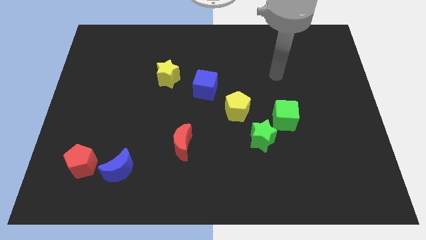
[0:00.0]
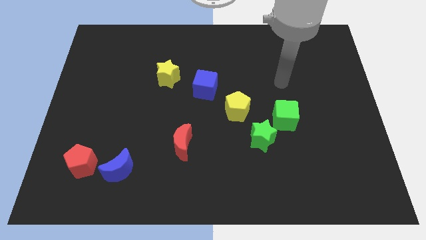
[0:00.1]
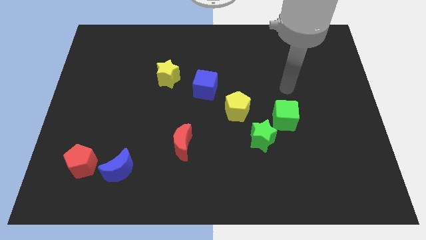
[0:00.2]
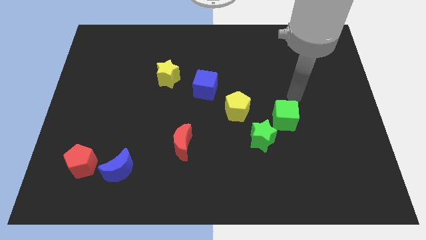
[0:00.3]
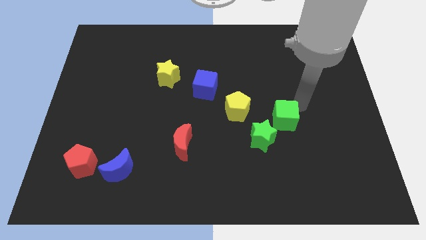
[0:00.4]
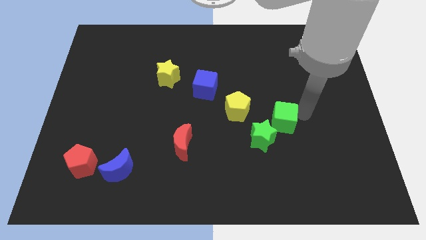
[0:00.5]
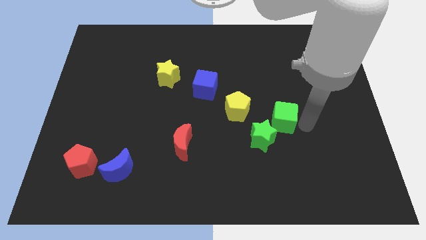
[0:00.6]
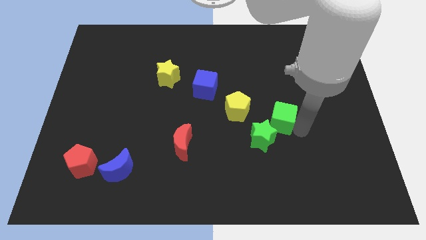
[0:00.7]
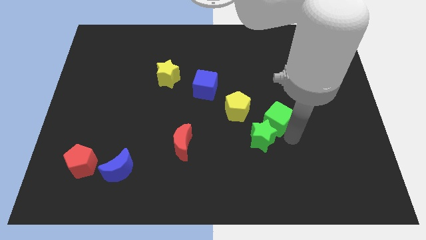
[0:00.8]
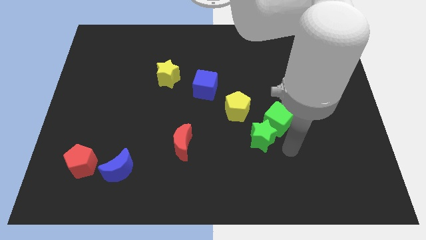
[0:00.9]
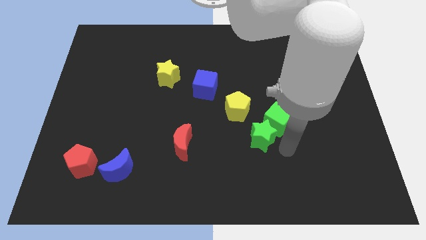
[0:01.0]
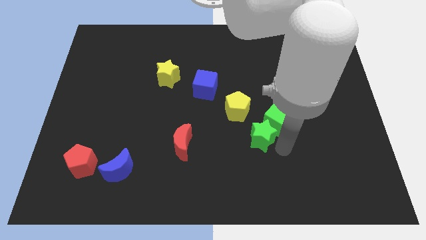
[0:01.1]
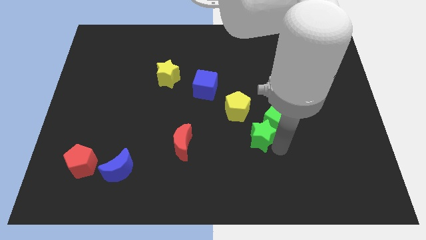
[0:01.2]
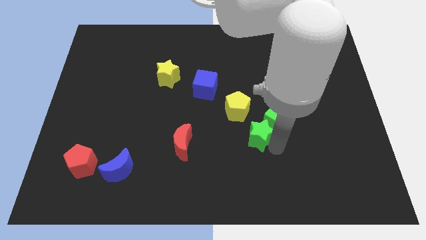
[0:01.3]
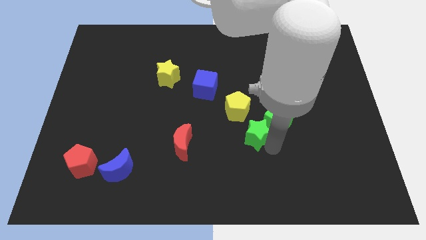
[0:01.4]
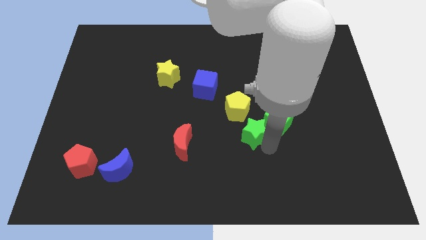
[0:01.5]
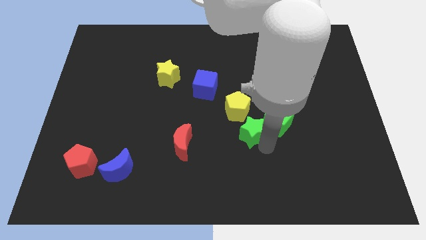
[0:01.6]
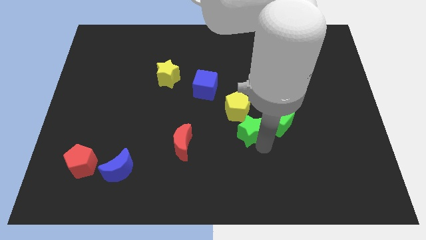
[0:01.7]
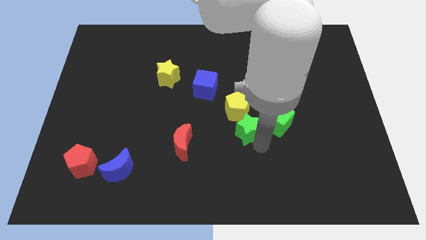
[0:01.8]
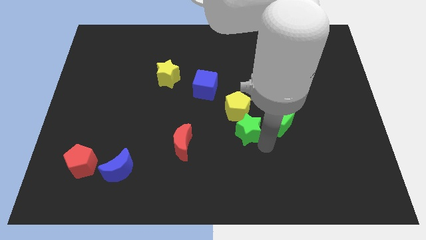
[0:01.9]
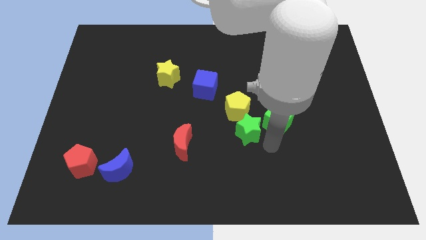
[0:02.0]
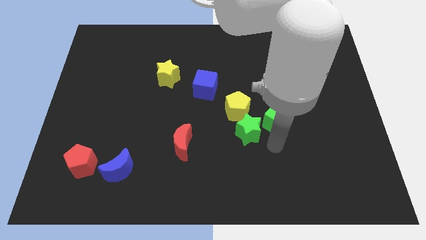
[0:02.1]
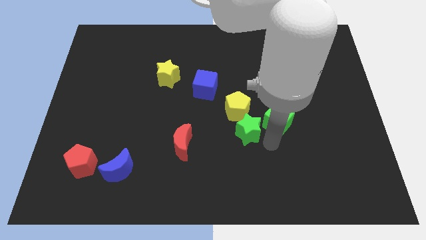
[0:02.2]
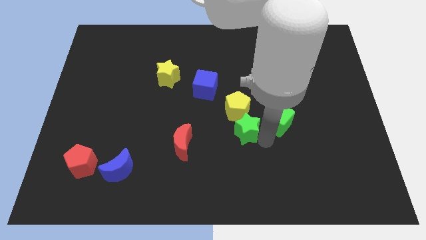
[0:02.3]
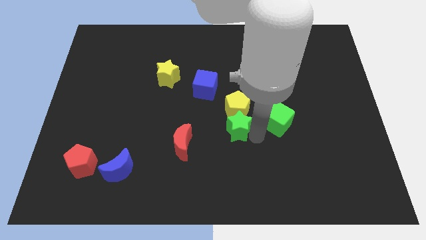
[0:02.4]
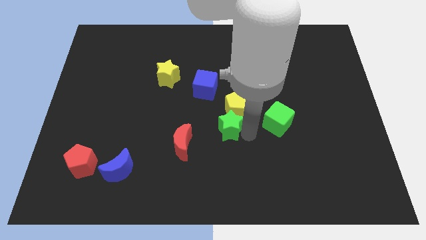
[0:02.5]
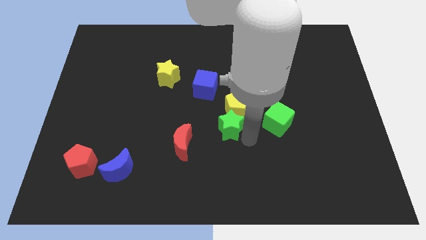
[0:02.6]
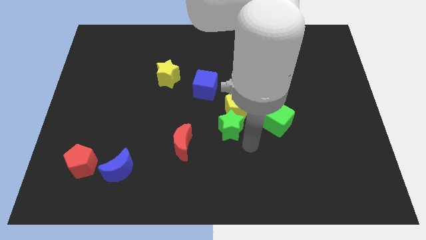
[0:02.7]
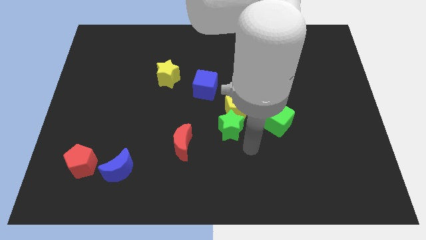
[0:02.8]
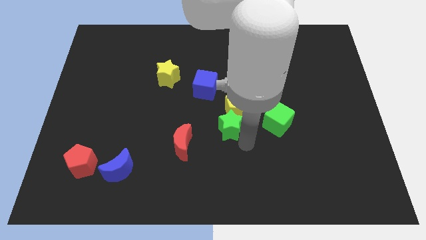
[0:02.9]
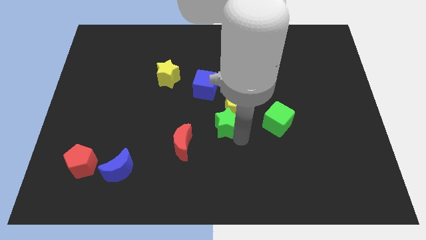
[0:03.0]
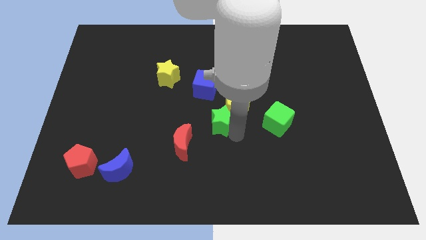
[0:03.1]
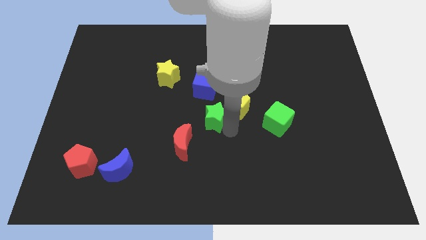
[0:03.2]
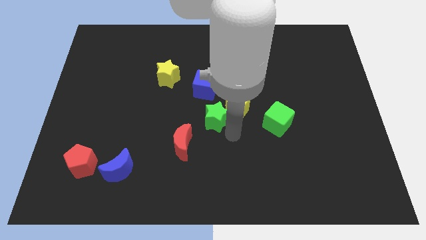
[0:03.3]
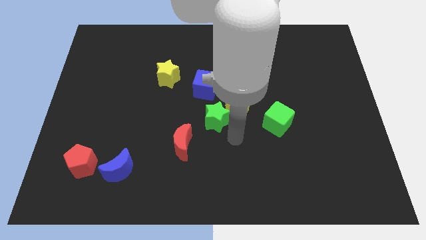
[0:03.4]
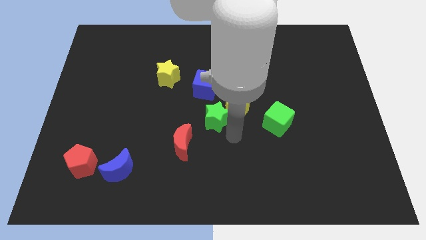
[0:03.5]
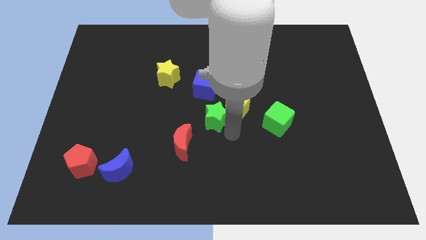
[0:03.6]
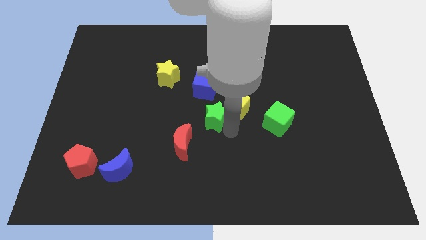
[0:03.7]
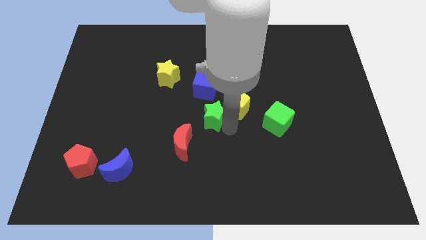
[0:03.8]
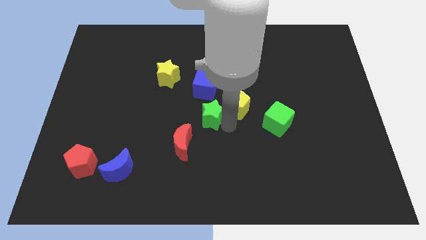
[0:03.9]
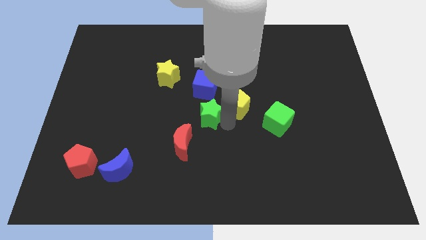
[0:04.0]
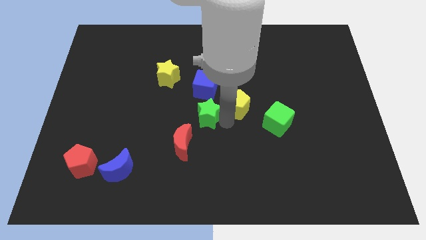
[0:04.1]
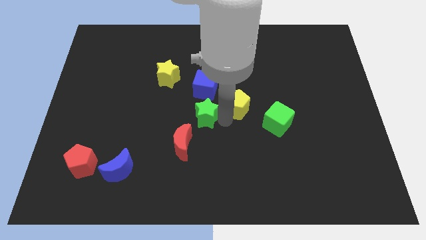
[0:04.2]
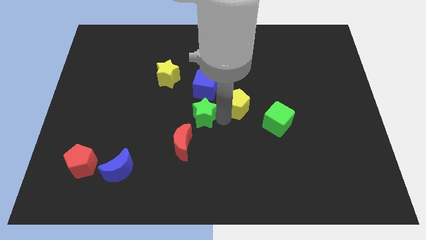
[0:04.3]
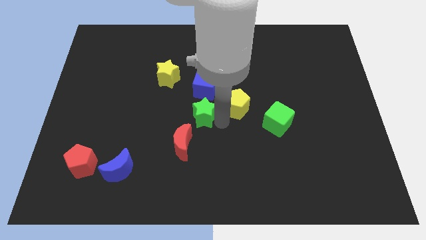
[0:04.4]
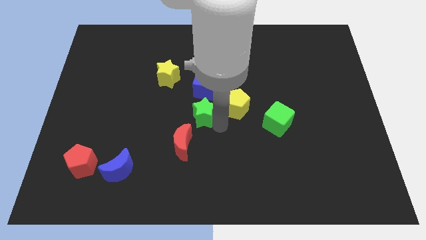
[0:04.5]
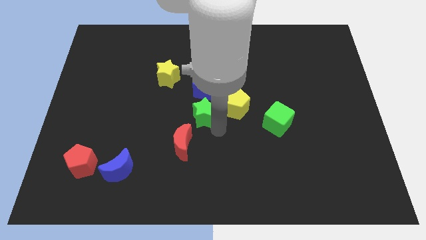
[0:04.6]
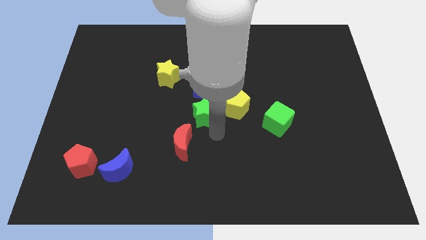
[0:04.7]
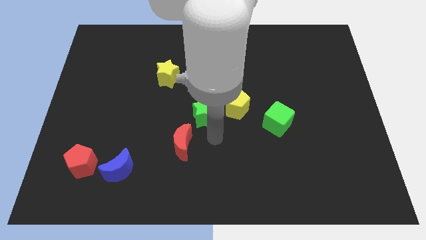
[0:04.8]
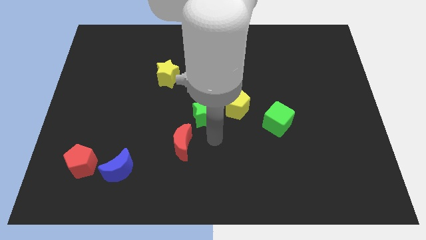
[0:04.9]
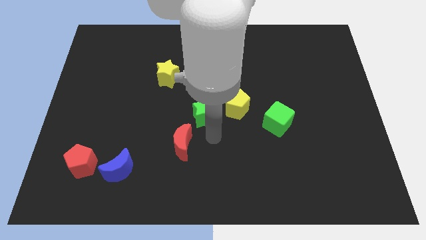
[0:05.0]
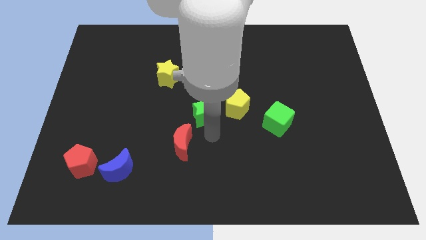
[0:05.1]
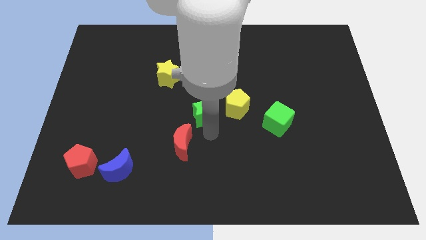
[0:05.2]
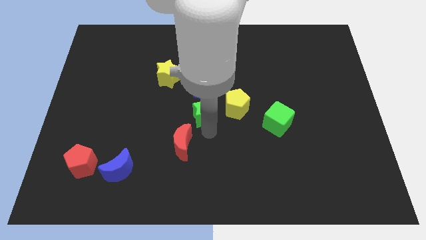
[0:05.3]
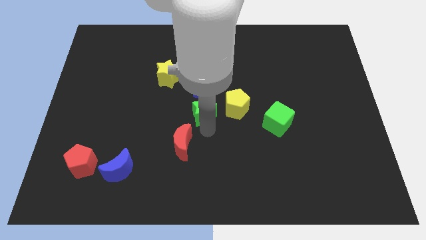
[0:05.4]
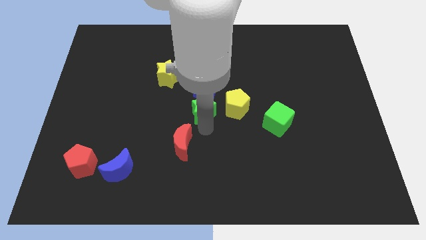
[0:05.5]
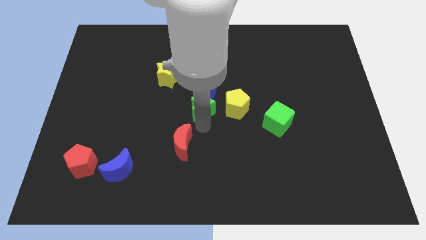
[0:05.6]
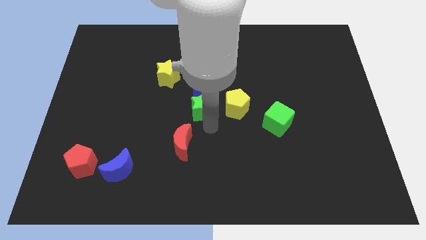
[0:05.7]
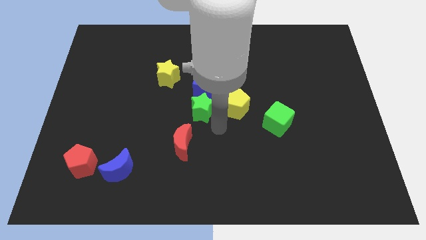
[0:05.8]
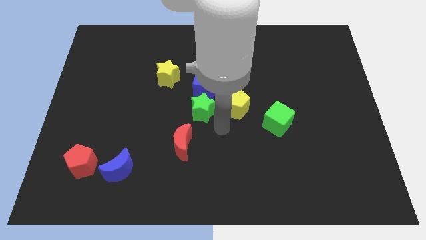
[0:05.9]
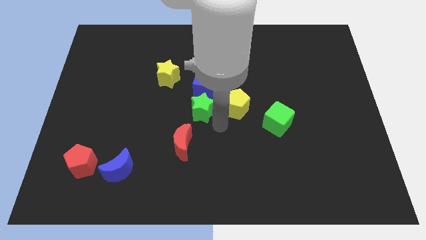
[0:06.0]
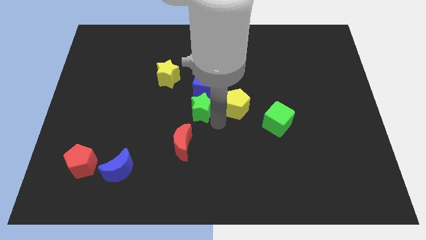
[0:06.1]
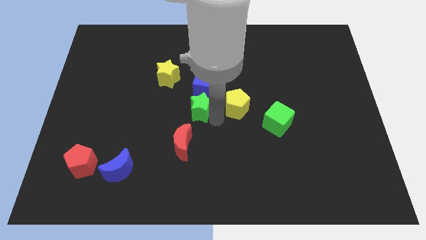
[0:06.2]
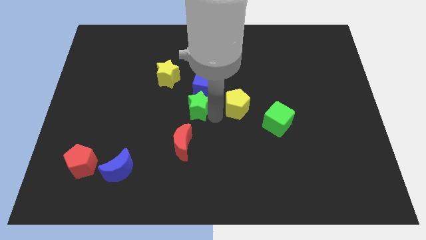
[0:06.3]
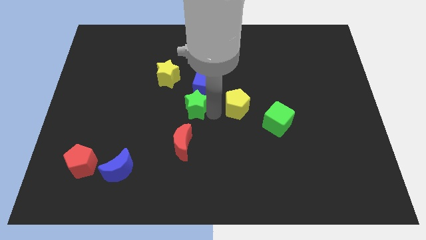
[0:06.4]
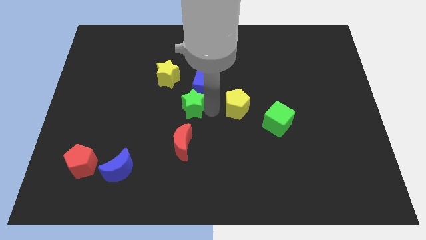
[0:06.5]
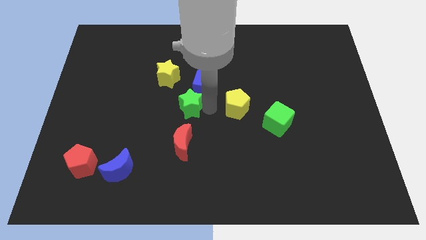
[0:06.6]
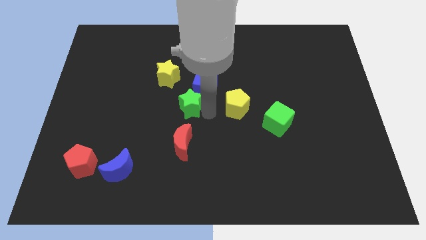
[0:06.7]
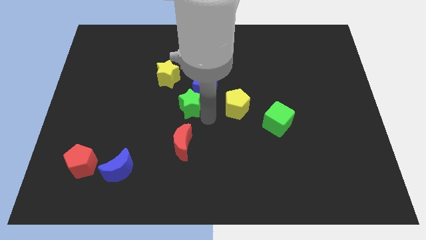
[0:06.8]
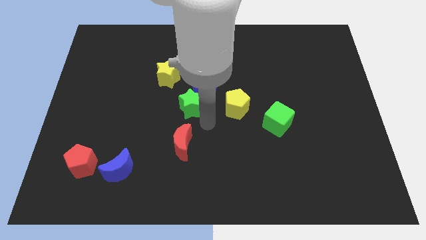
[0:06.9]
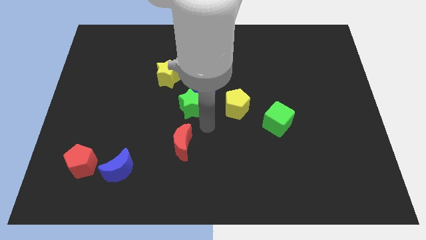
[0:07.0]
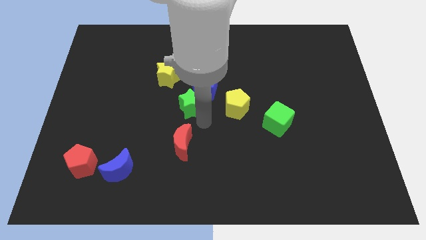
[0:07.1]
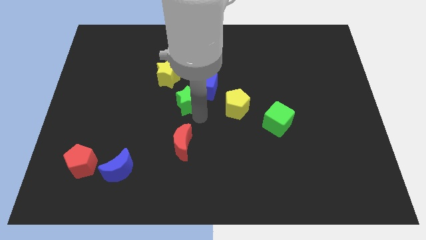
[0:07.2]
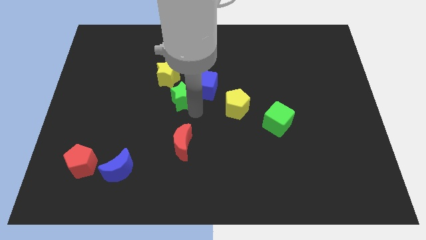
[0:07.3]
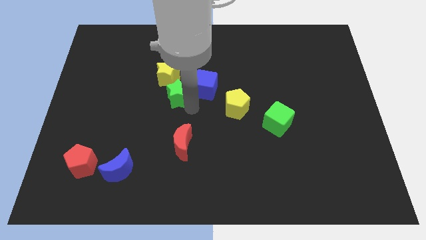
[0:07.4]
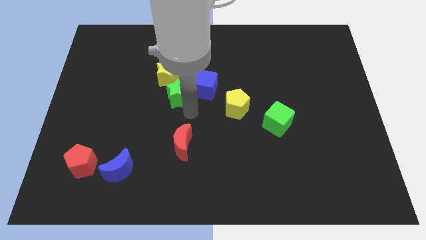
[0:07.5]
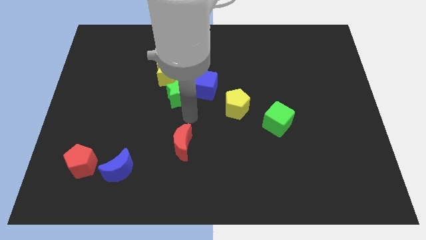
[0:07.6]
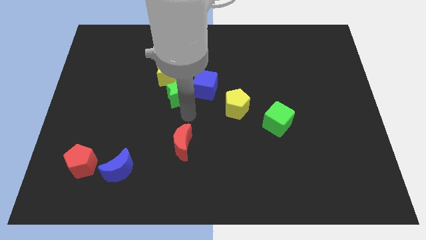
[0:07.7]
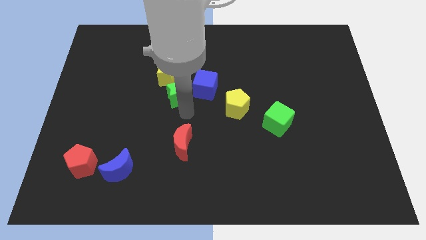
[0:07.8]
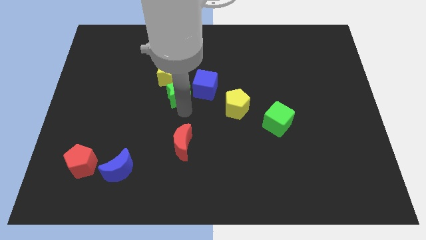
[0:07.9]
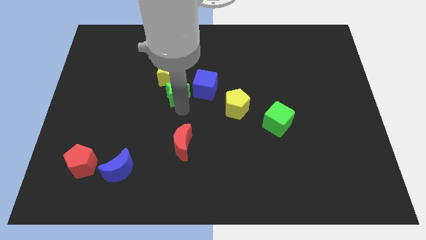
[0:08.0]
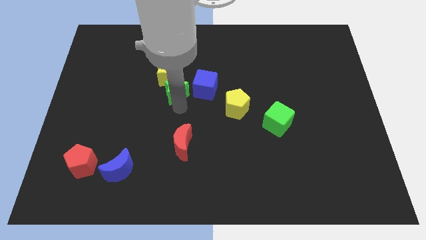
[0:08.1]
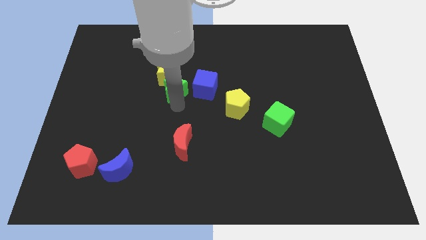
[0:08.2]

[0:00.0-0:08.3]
slide the green star close to the yellow star
